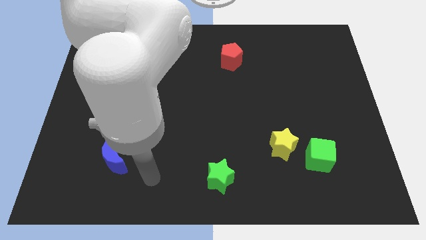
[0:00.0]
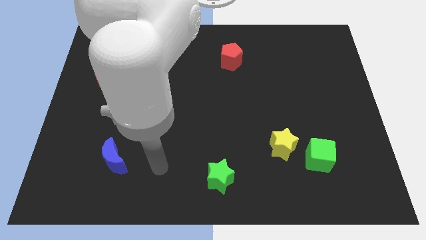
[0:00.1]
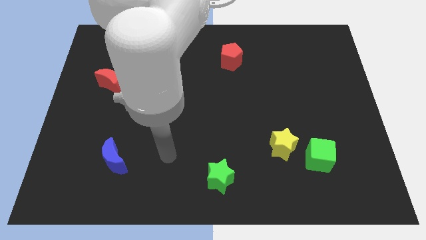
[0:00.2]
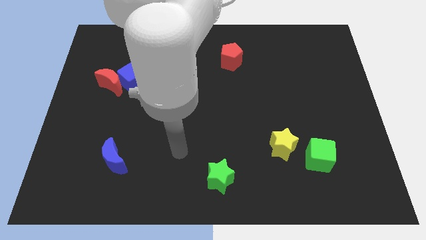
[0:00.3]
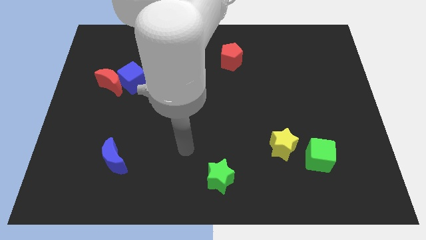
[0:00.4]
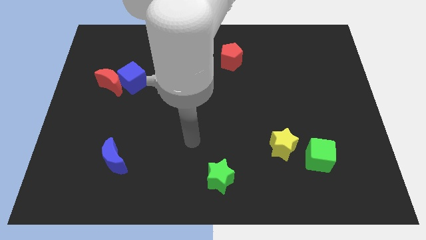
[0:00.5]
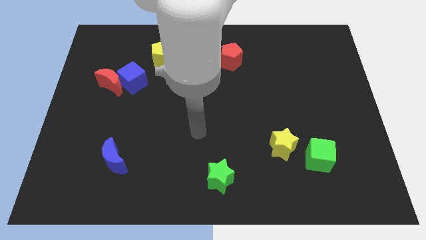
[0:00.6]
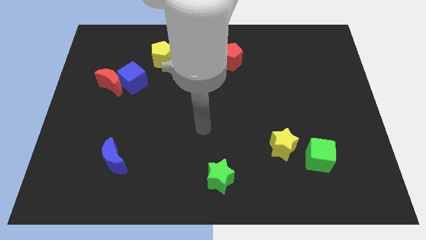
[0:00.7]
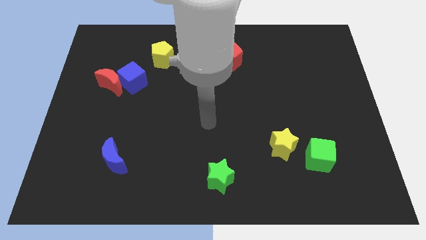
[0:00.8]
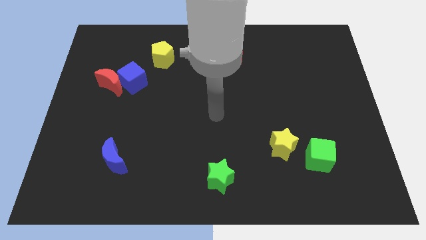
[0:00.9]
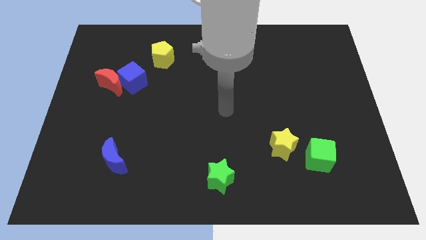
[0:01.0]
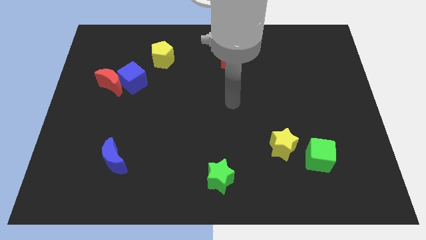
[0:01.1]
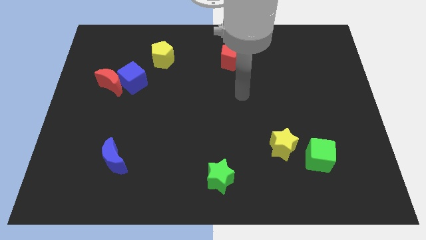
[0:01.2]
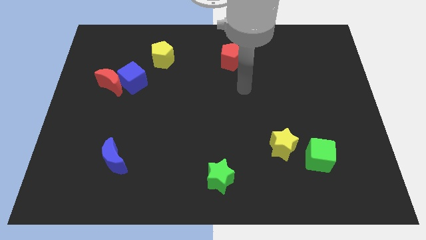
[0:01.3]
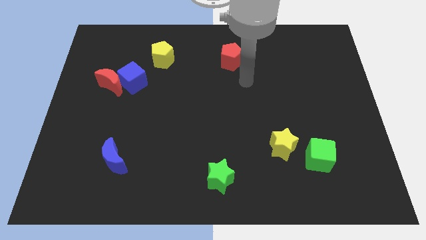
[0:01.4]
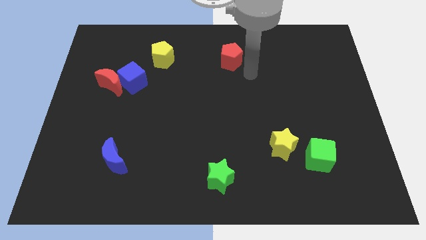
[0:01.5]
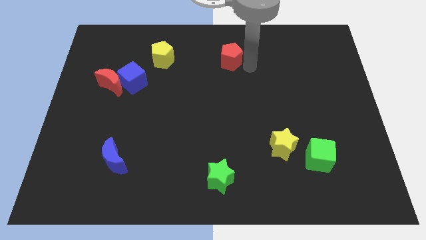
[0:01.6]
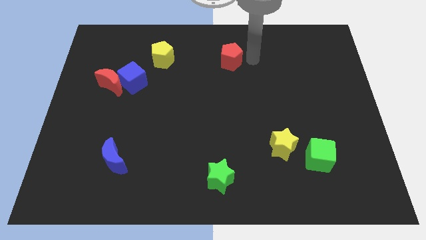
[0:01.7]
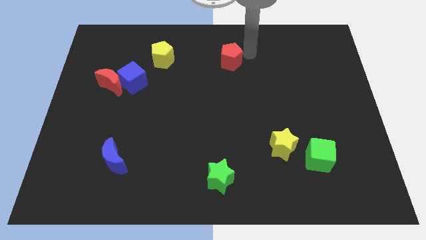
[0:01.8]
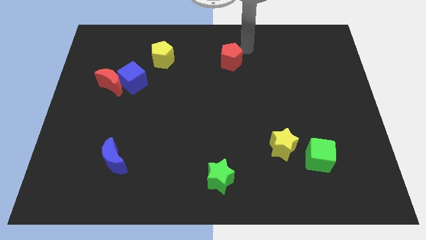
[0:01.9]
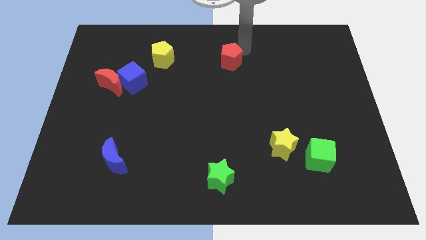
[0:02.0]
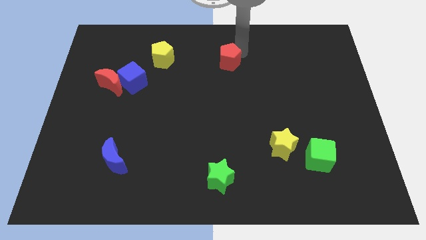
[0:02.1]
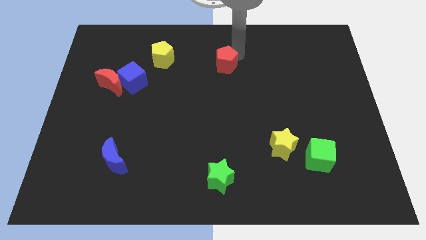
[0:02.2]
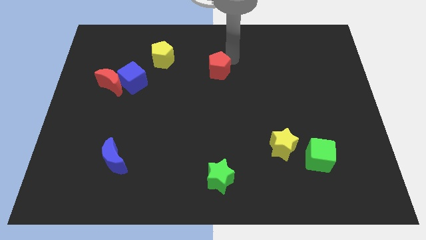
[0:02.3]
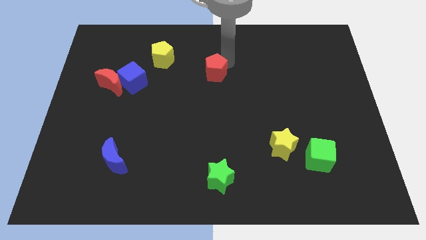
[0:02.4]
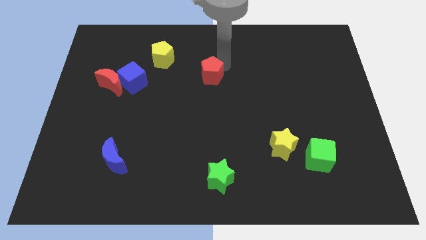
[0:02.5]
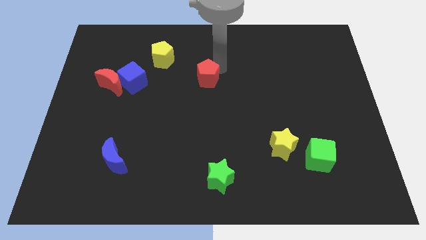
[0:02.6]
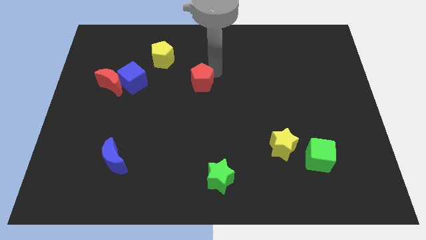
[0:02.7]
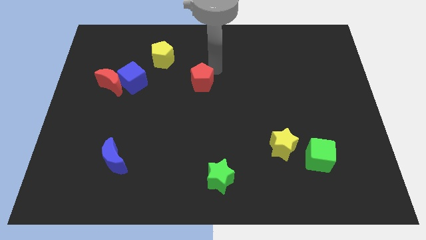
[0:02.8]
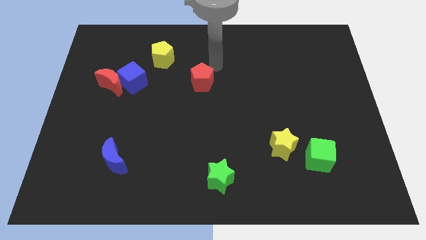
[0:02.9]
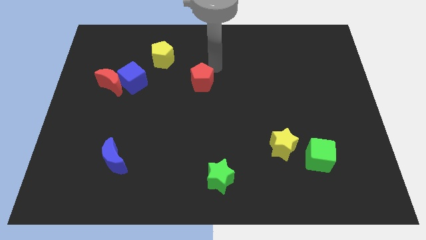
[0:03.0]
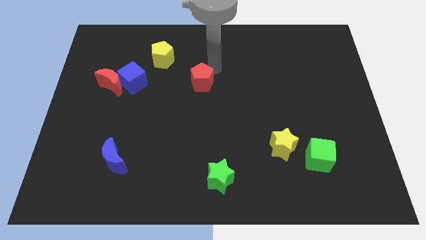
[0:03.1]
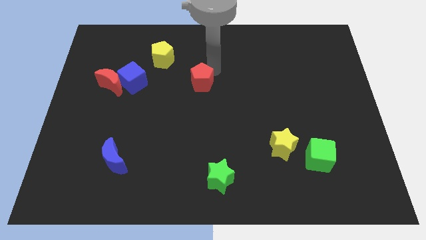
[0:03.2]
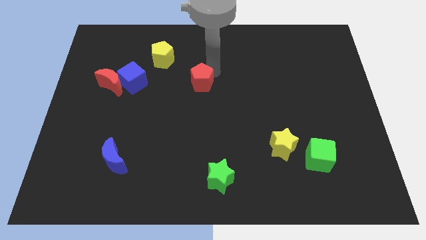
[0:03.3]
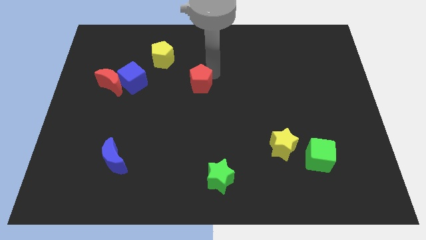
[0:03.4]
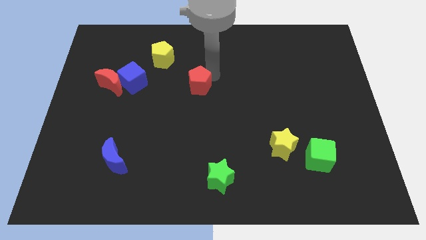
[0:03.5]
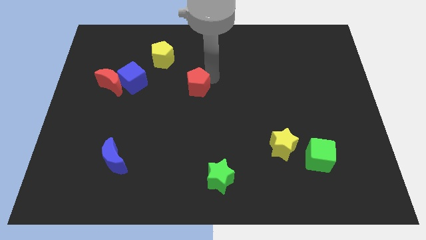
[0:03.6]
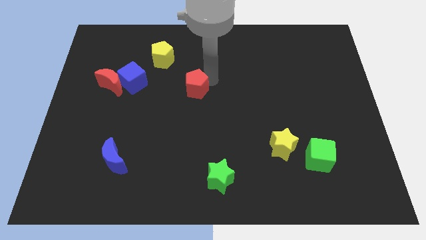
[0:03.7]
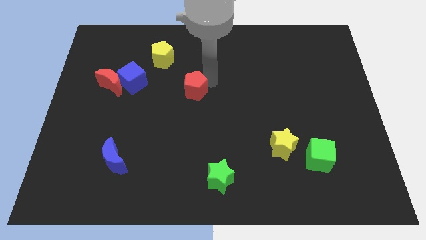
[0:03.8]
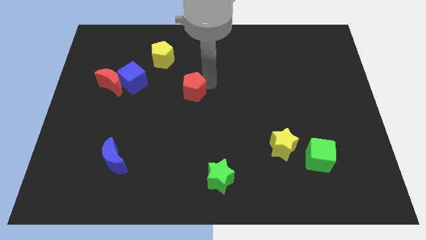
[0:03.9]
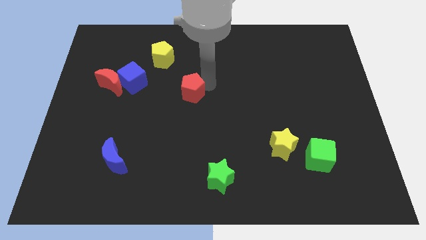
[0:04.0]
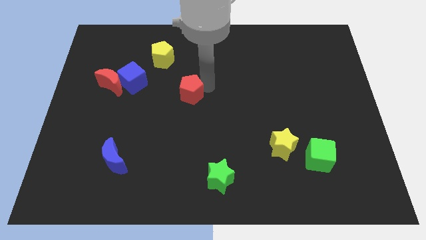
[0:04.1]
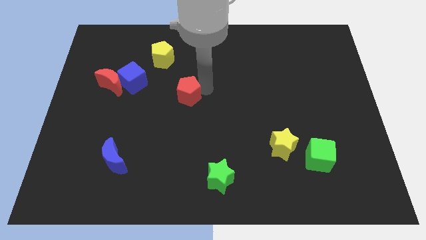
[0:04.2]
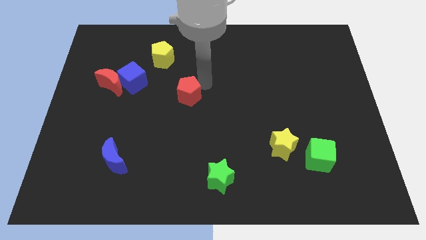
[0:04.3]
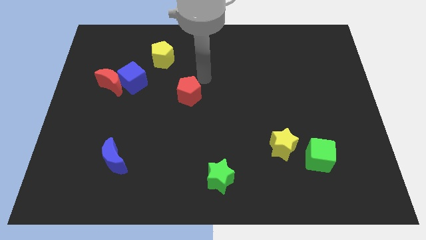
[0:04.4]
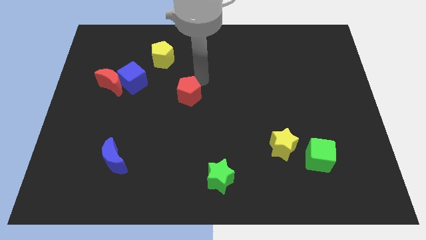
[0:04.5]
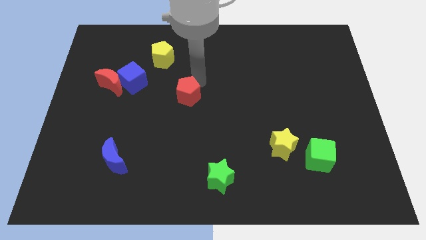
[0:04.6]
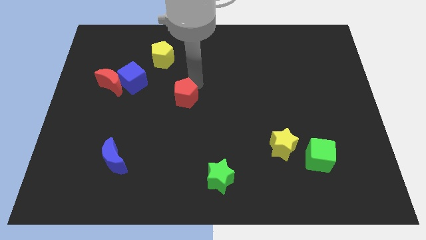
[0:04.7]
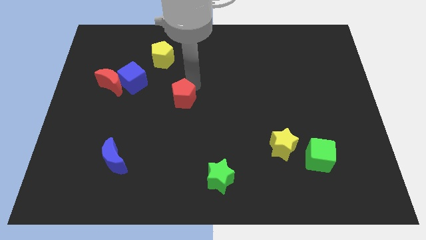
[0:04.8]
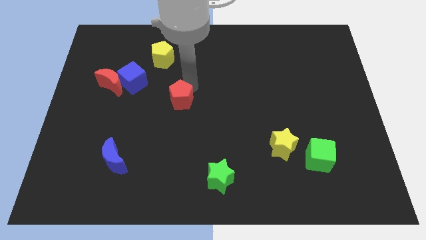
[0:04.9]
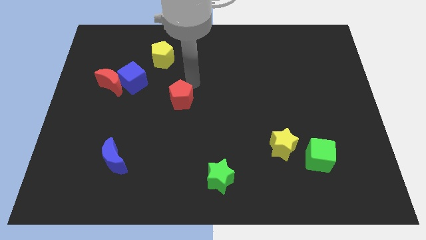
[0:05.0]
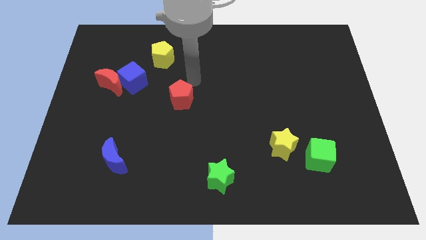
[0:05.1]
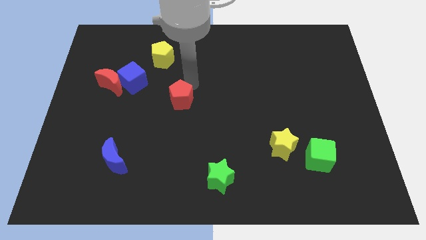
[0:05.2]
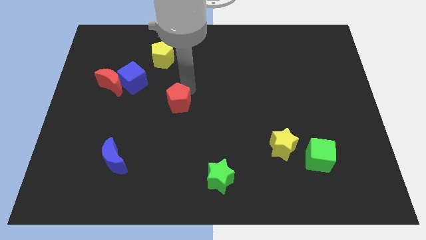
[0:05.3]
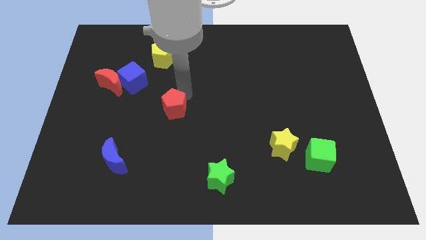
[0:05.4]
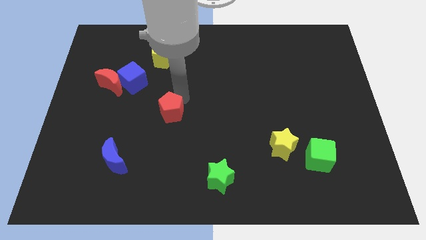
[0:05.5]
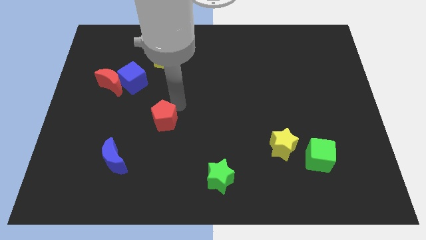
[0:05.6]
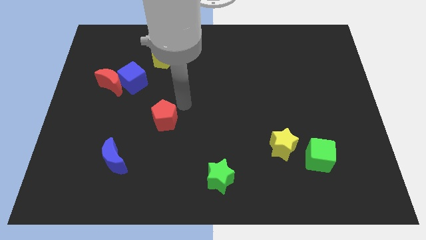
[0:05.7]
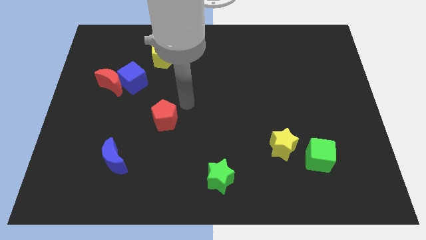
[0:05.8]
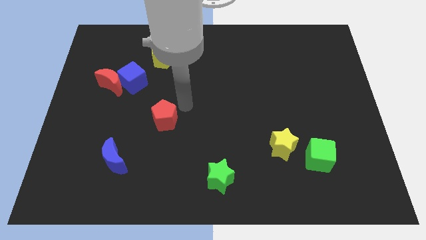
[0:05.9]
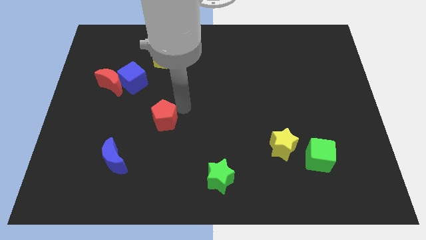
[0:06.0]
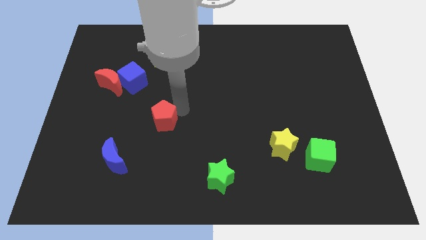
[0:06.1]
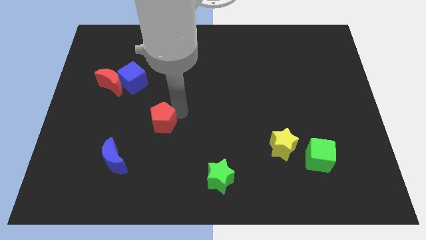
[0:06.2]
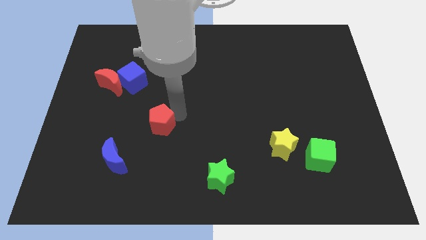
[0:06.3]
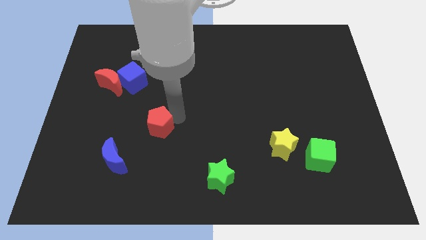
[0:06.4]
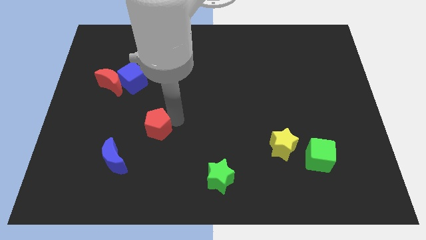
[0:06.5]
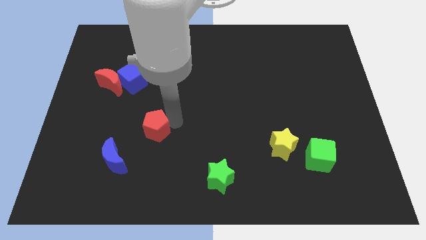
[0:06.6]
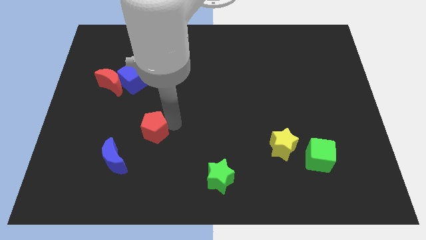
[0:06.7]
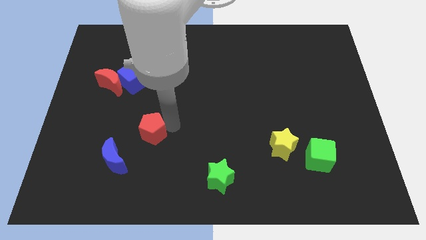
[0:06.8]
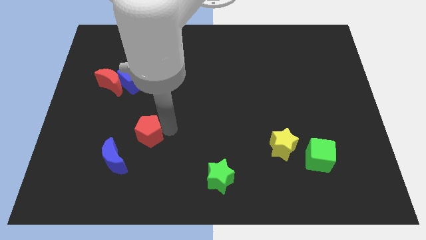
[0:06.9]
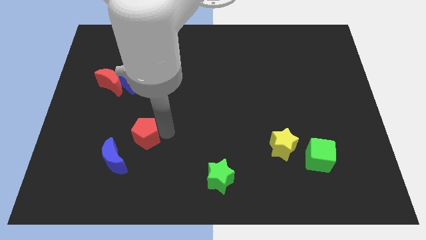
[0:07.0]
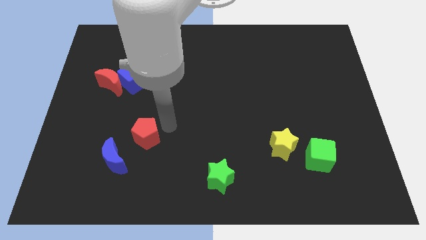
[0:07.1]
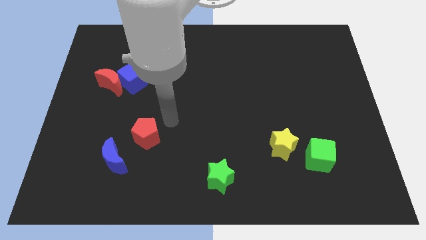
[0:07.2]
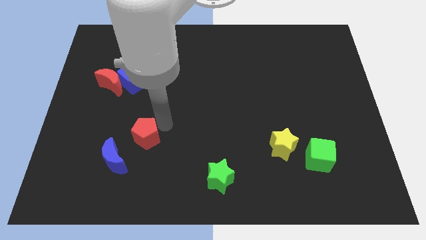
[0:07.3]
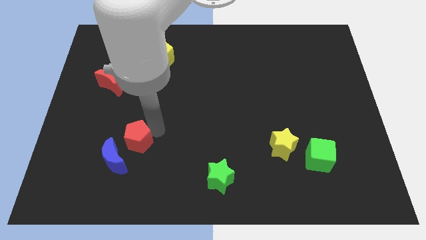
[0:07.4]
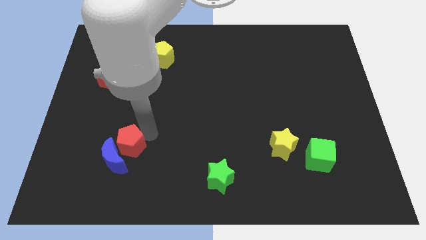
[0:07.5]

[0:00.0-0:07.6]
push the red pentagon to the blue moon

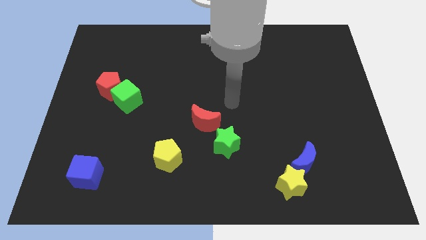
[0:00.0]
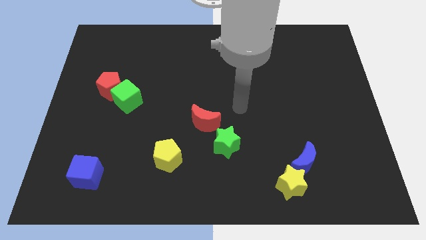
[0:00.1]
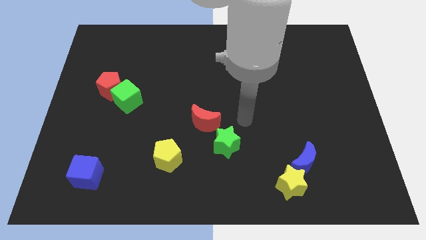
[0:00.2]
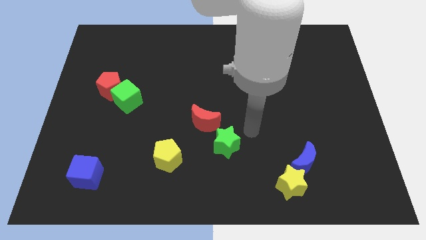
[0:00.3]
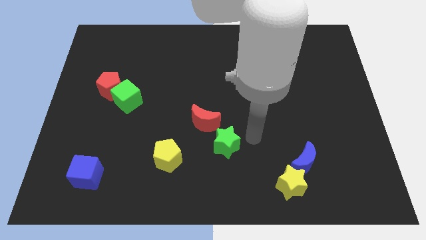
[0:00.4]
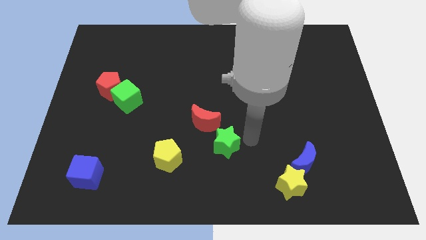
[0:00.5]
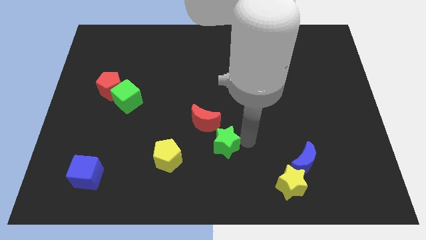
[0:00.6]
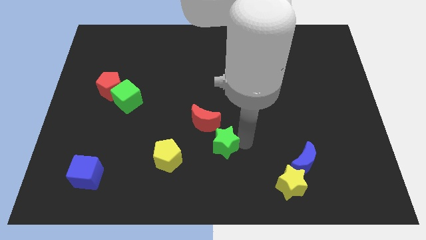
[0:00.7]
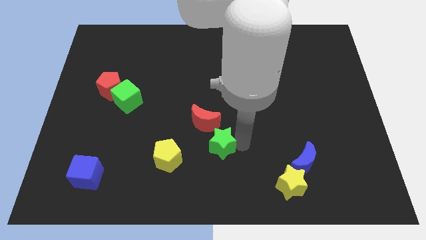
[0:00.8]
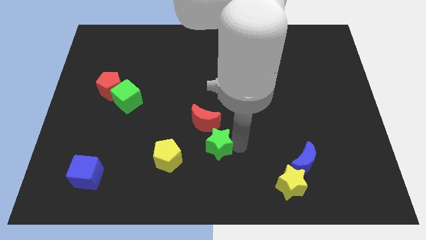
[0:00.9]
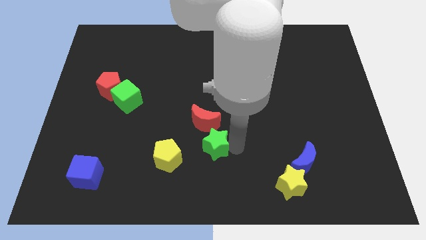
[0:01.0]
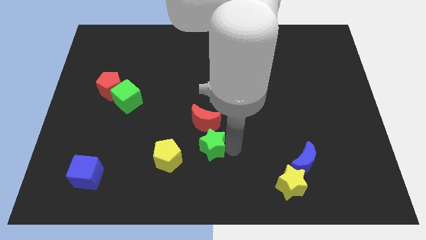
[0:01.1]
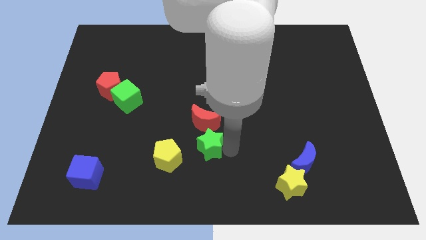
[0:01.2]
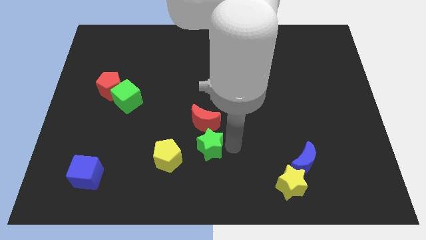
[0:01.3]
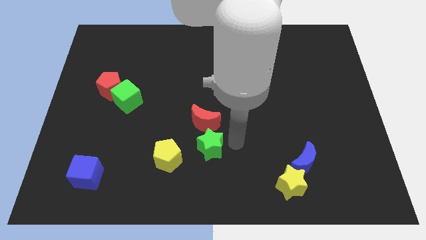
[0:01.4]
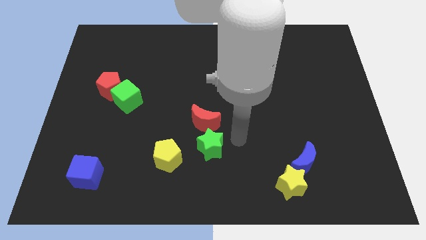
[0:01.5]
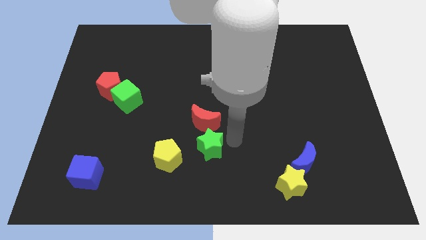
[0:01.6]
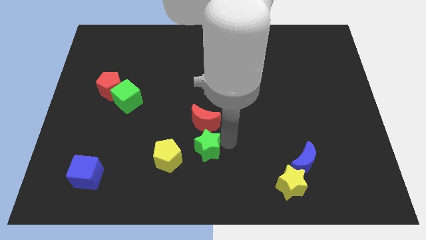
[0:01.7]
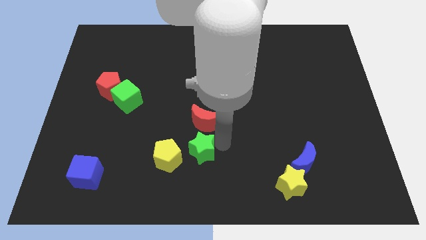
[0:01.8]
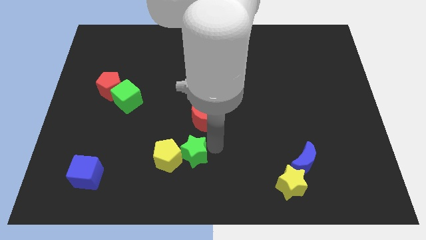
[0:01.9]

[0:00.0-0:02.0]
push the green star close to the yellow pentagon
